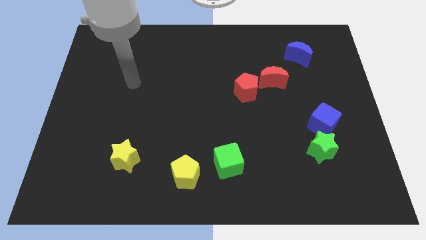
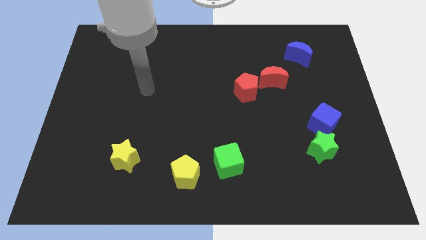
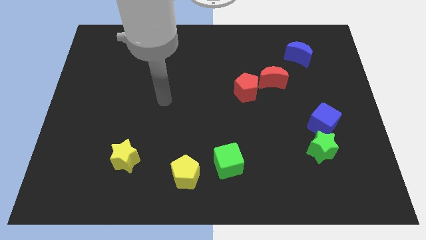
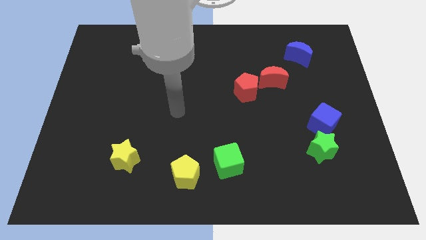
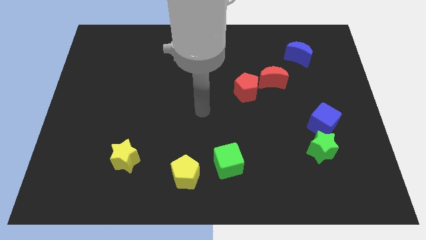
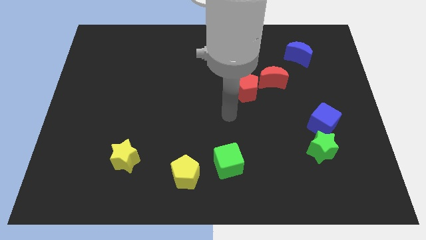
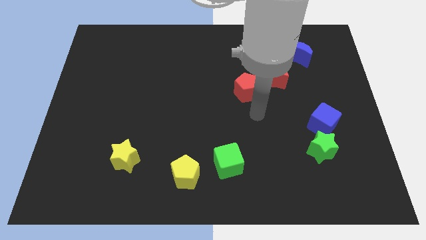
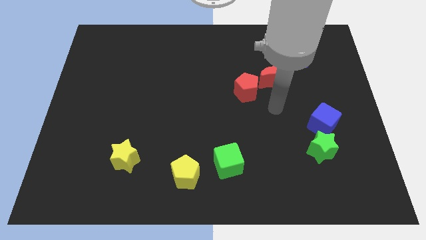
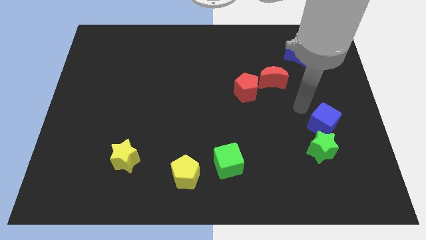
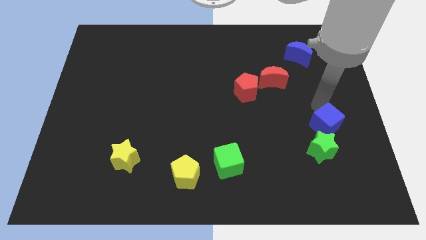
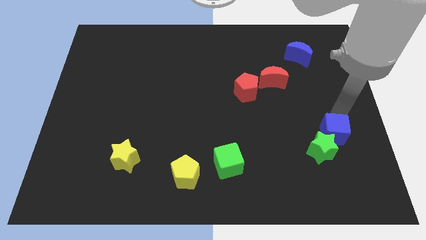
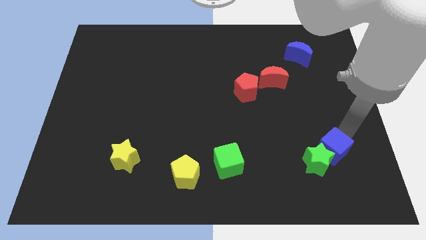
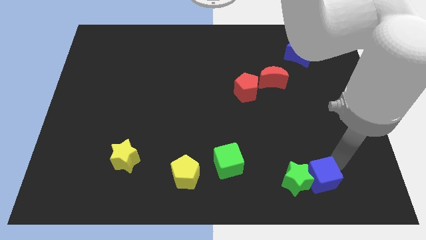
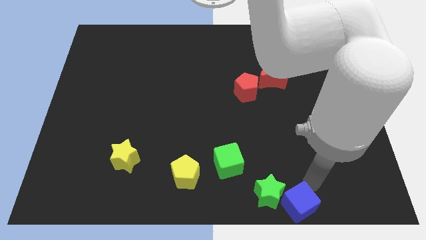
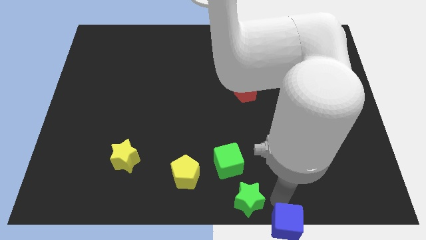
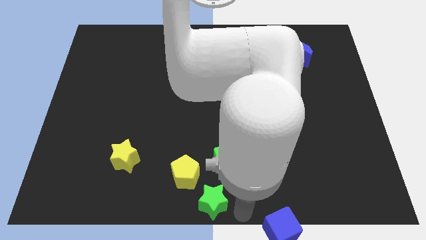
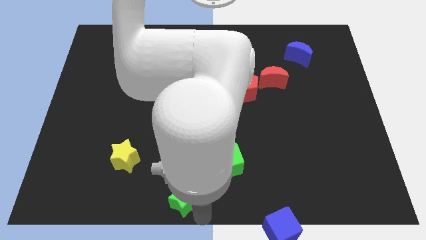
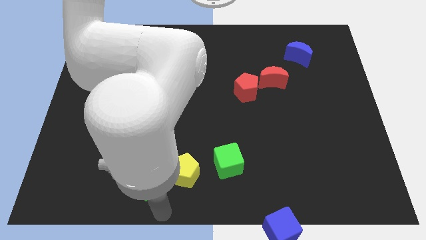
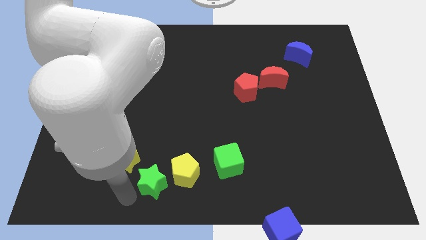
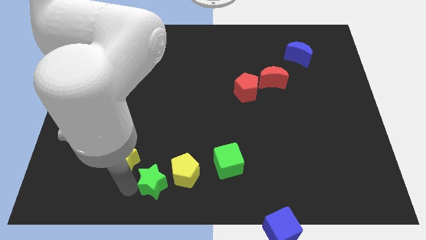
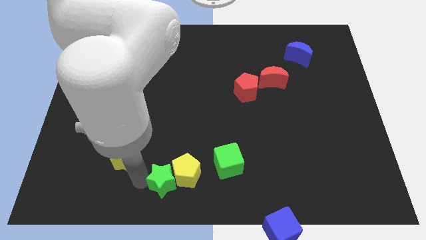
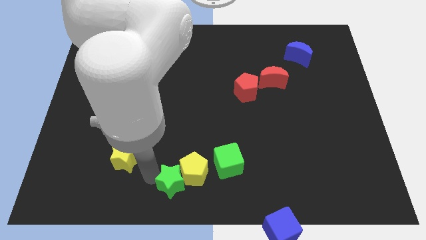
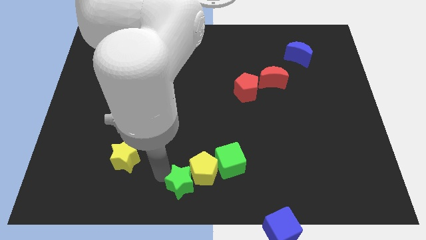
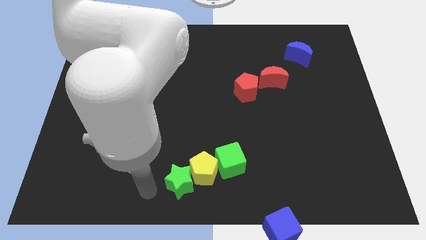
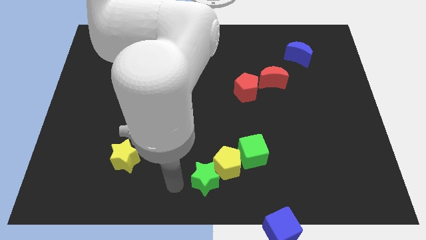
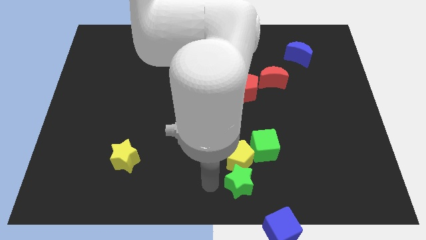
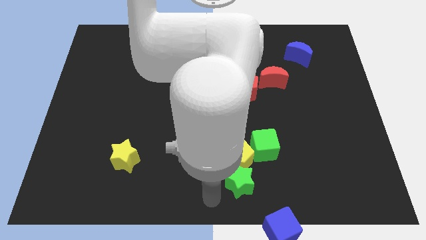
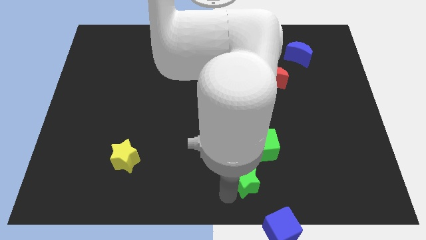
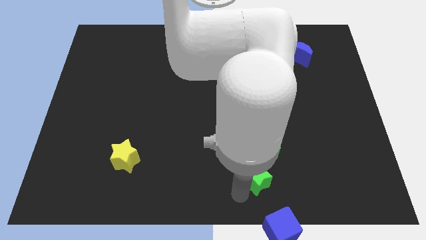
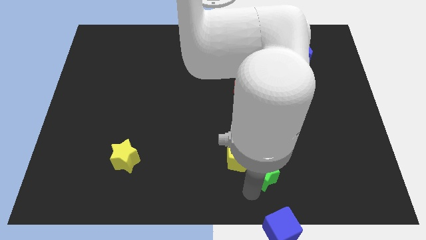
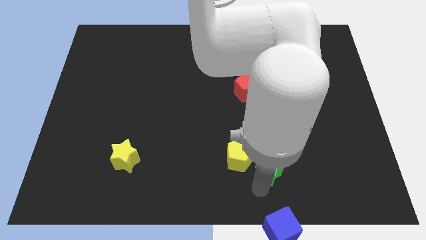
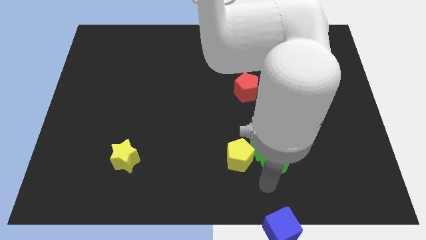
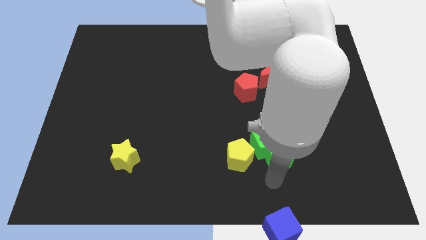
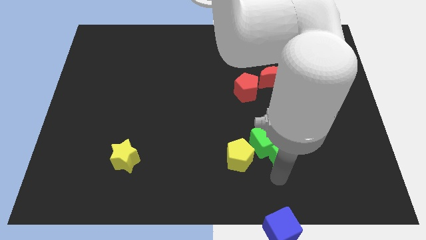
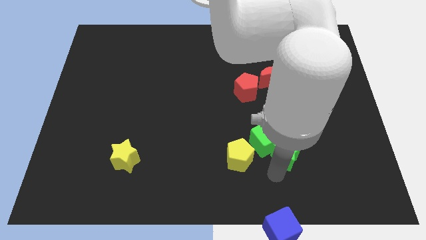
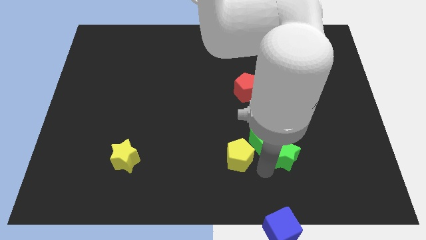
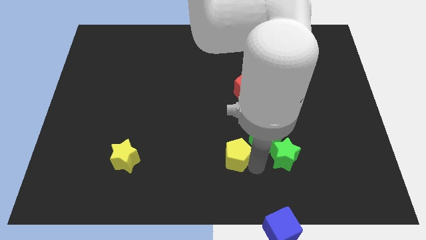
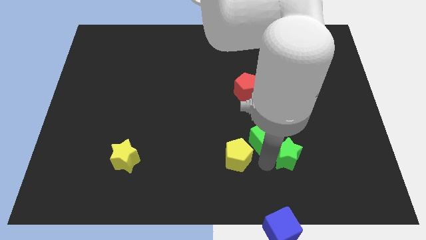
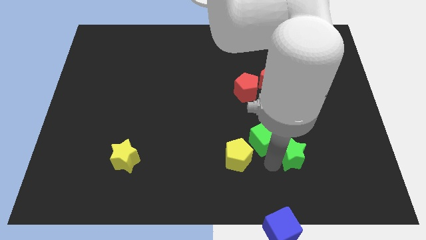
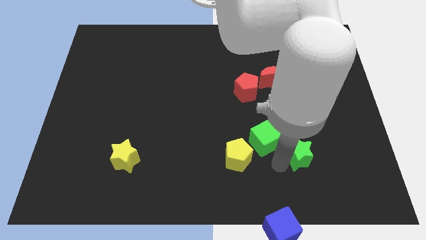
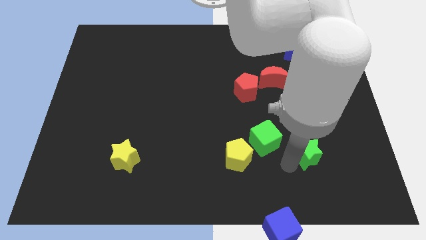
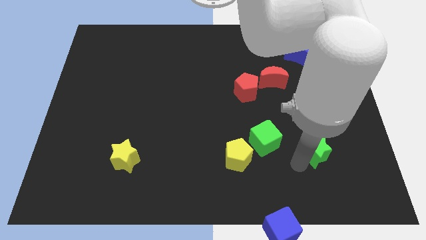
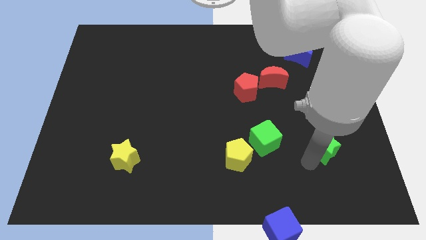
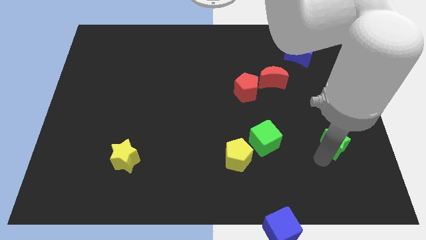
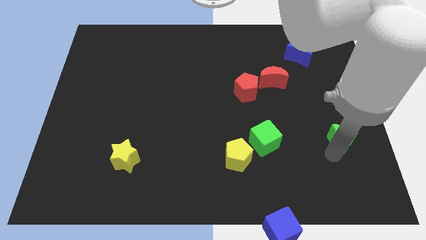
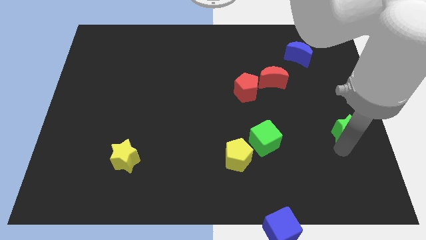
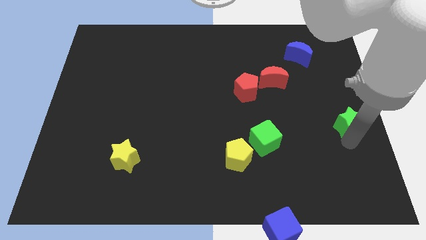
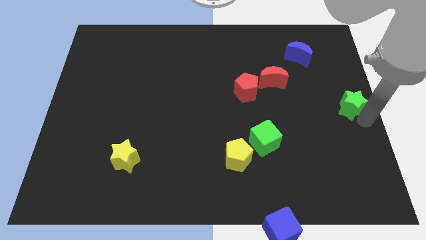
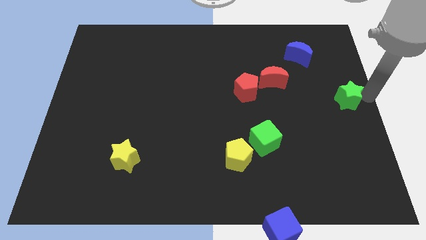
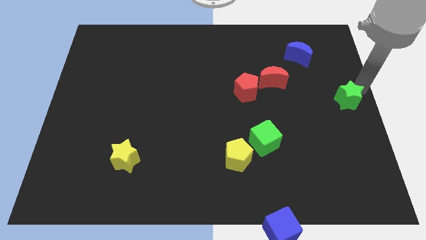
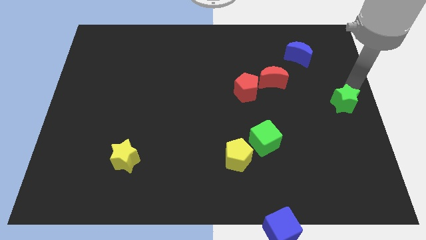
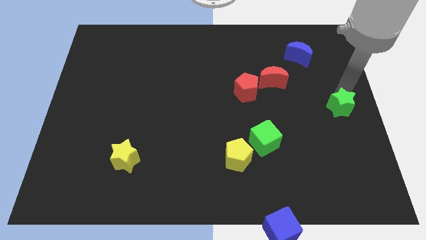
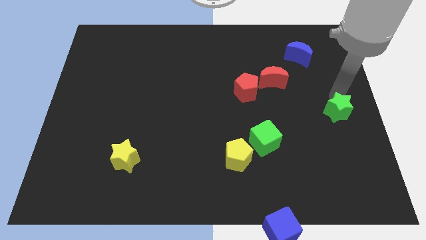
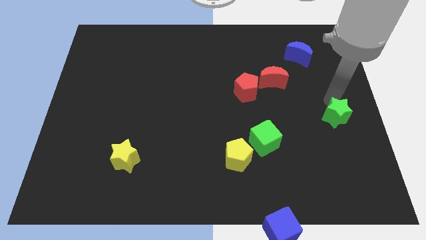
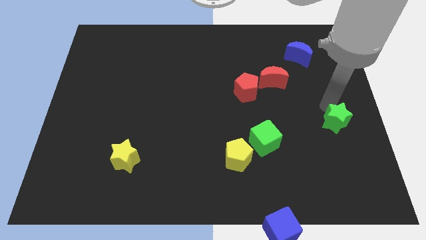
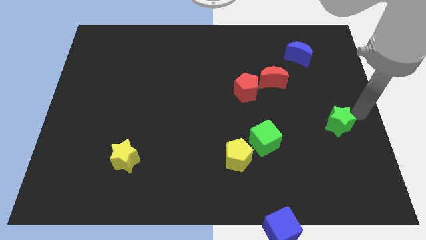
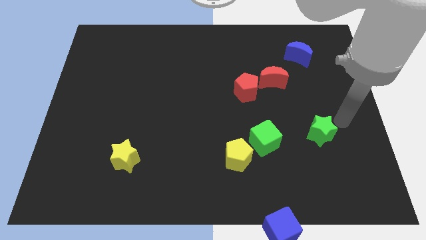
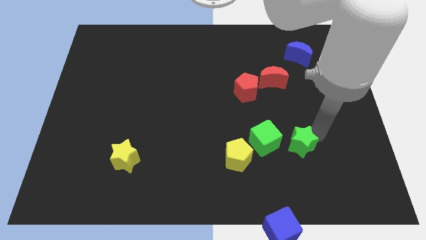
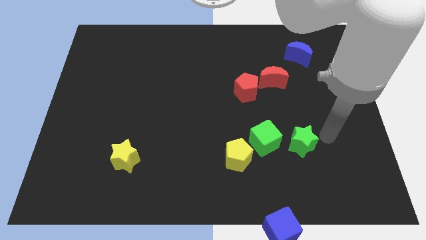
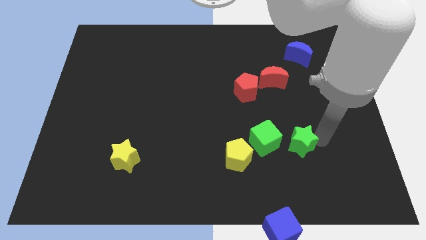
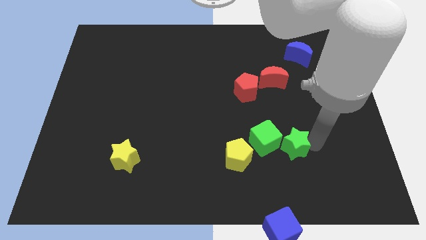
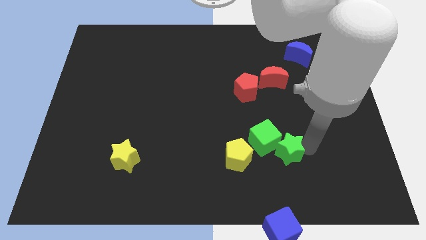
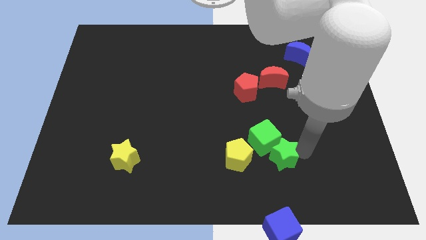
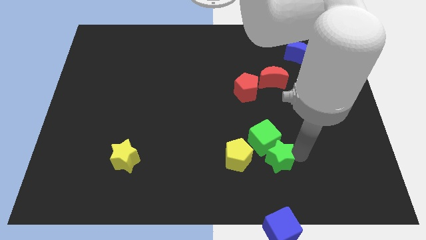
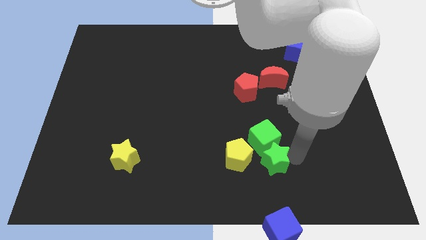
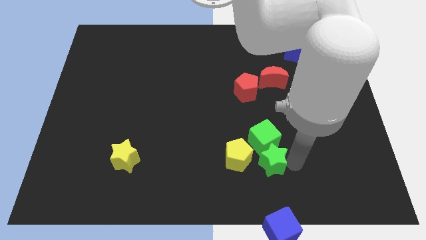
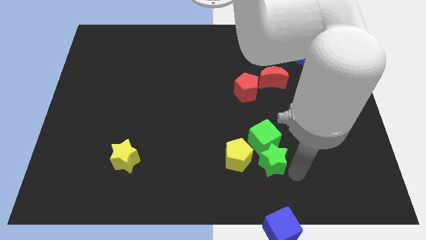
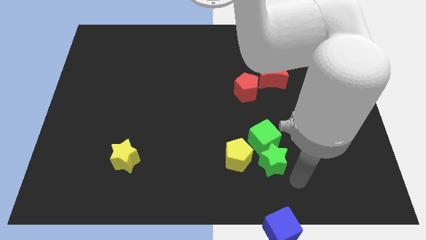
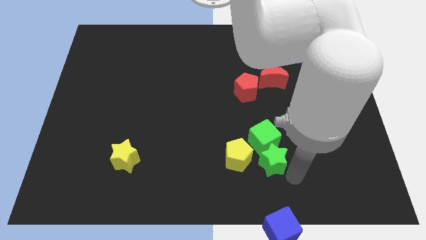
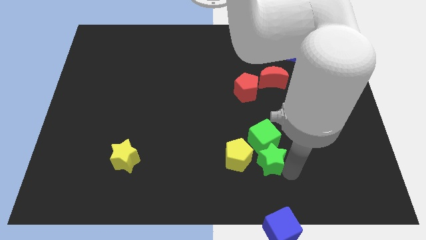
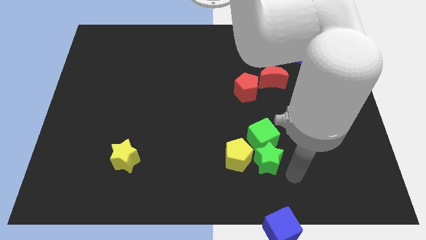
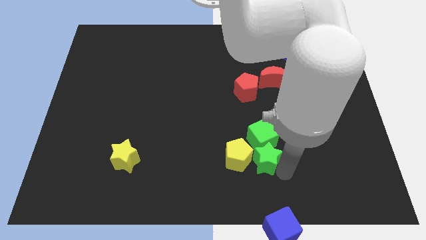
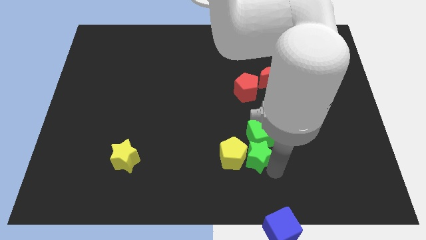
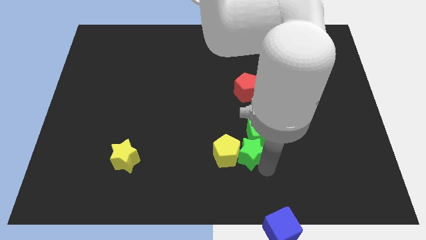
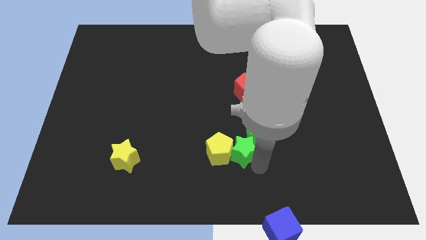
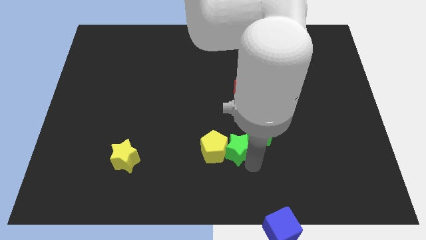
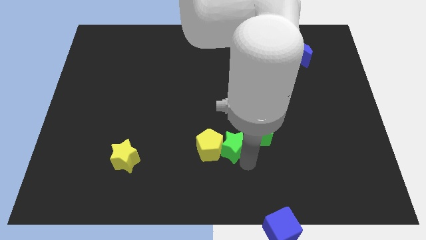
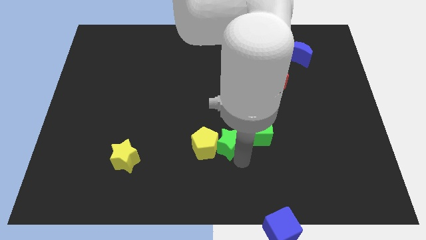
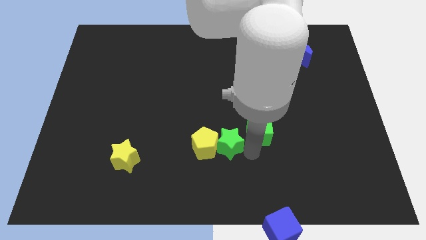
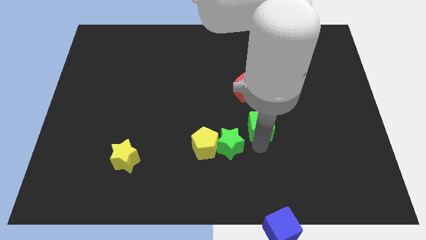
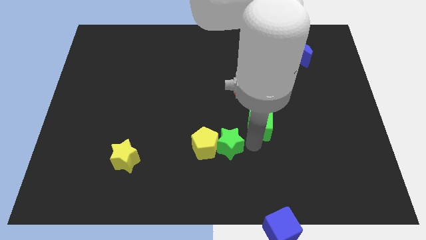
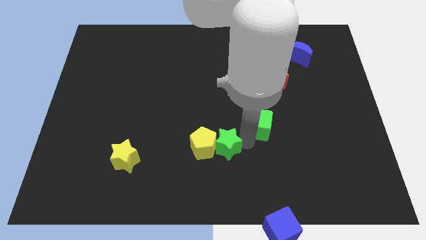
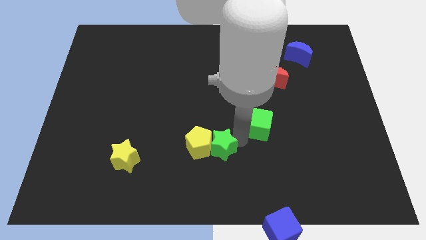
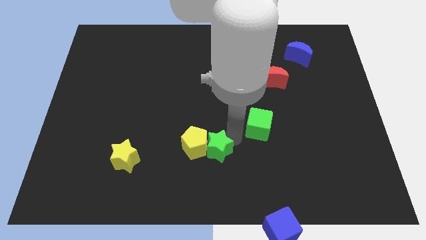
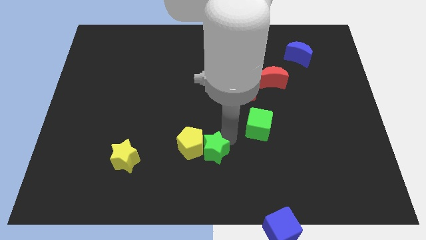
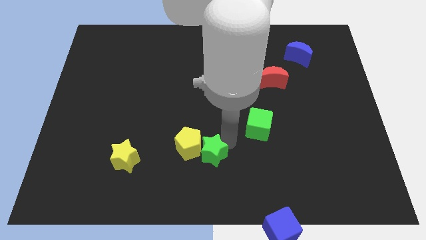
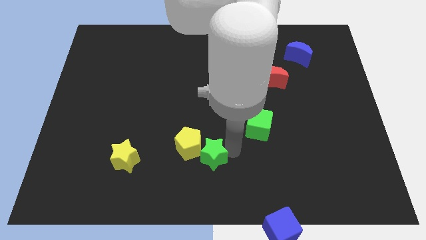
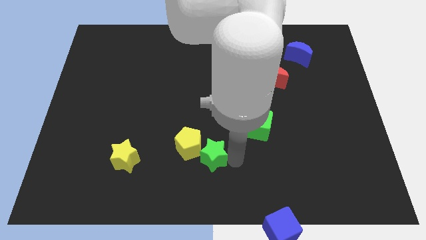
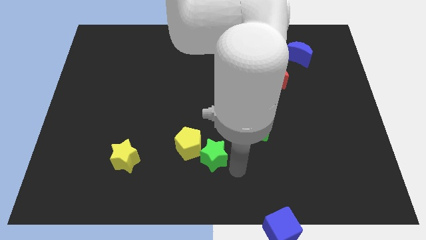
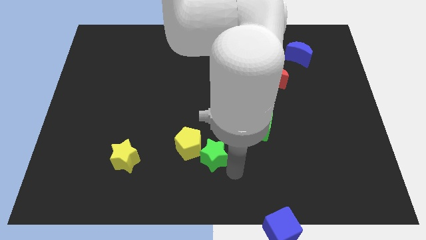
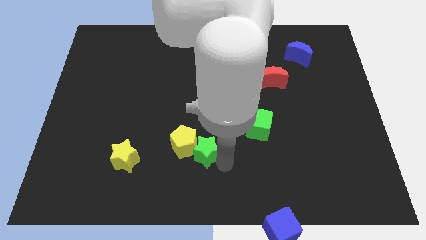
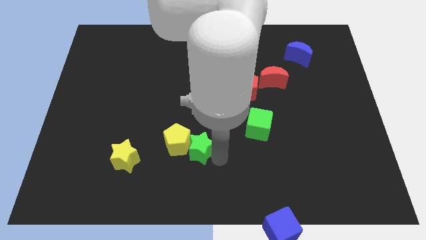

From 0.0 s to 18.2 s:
move the green star just right of the yellow star
